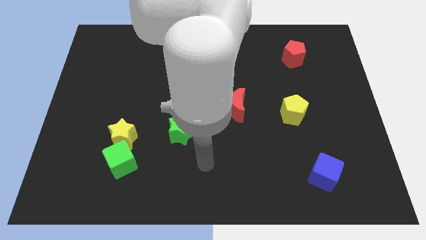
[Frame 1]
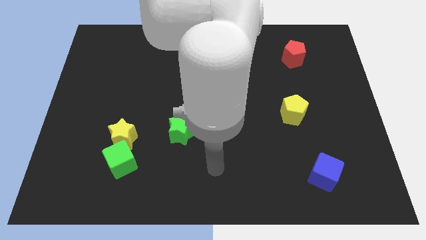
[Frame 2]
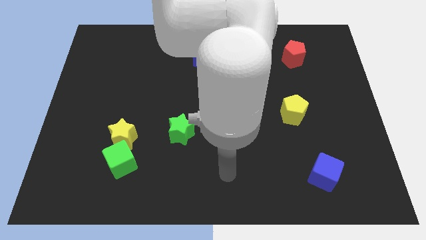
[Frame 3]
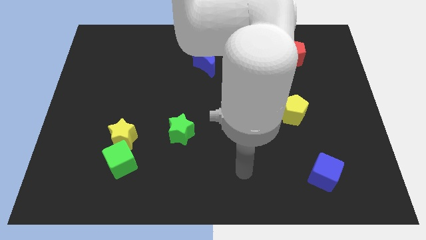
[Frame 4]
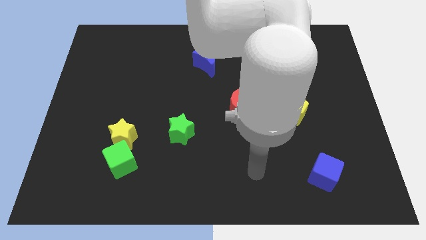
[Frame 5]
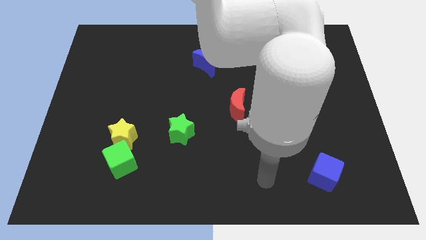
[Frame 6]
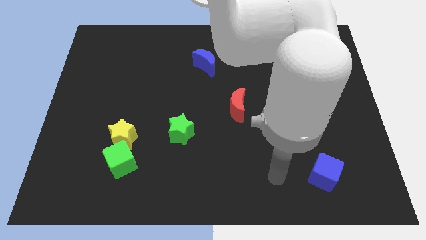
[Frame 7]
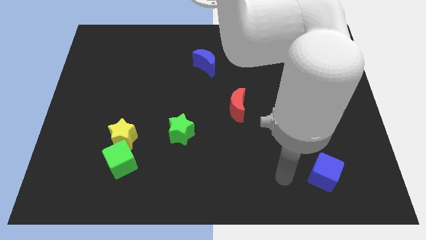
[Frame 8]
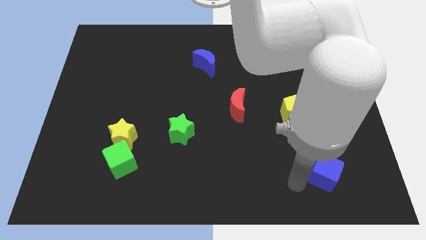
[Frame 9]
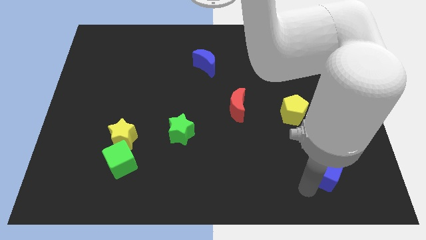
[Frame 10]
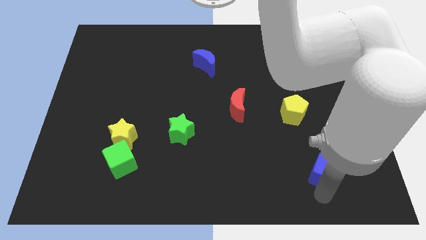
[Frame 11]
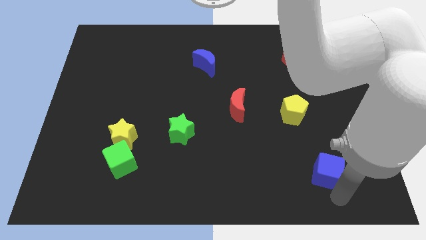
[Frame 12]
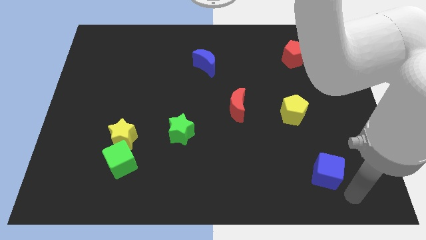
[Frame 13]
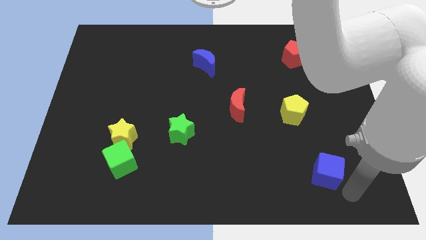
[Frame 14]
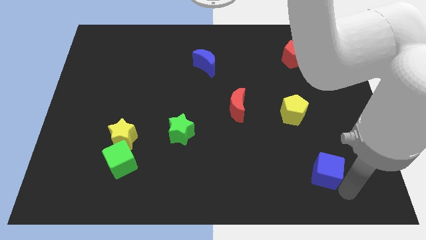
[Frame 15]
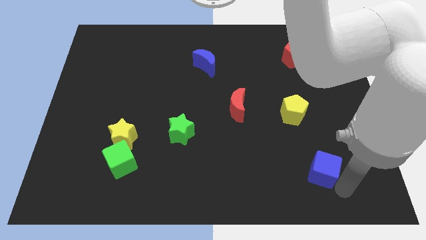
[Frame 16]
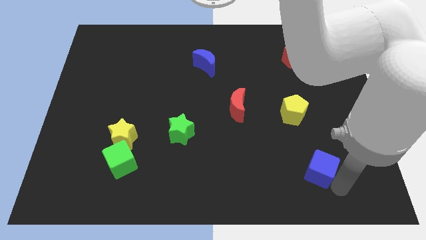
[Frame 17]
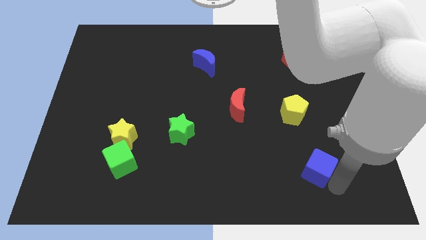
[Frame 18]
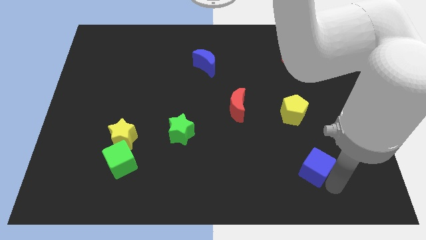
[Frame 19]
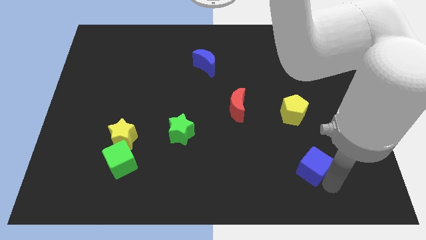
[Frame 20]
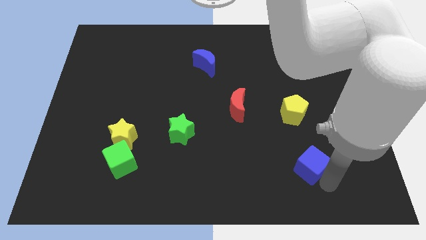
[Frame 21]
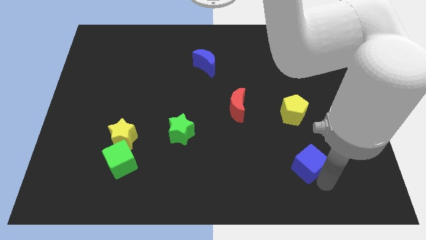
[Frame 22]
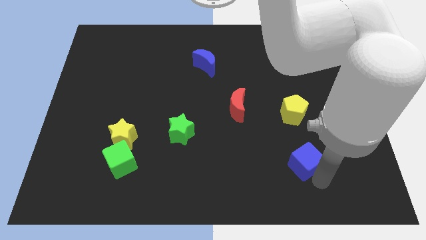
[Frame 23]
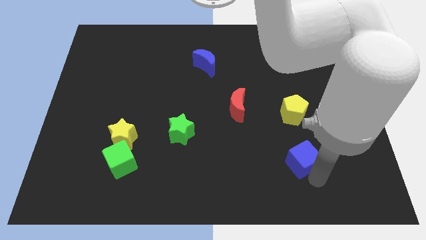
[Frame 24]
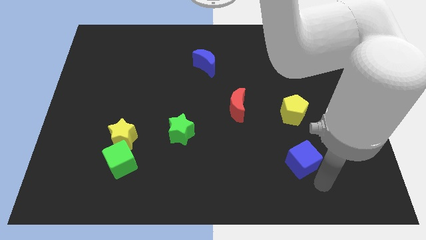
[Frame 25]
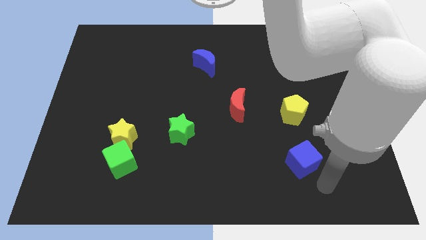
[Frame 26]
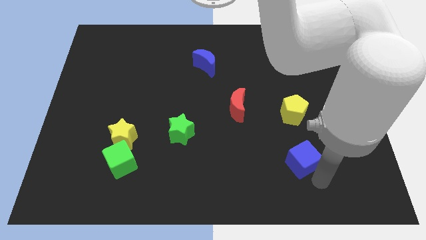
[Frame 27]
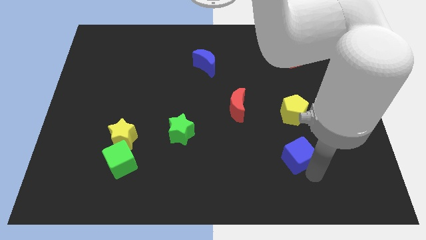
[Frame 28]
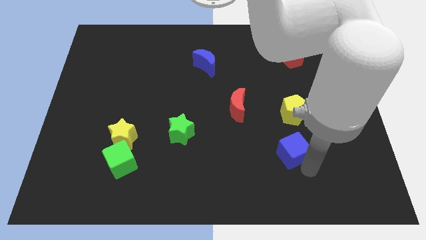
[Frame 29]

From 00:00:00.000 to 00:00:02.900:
push the blue cube a bit diagonally up and left

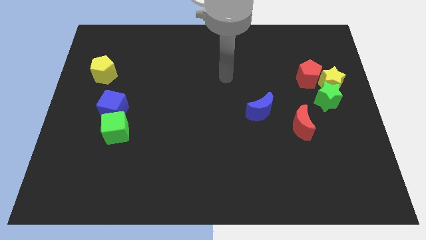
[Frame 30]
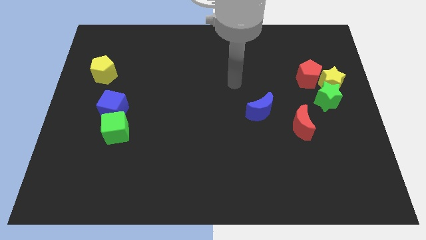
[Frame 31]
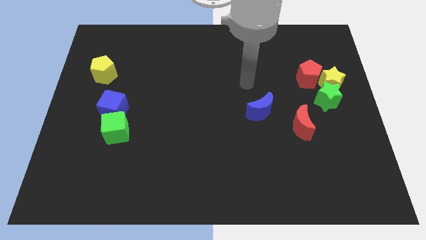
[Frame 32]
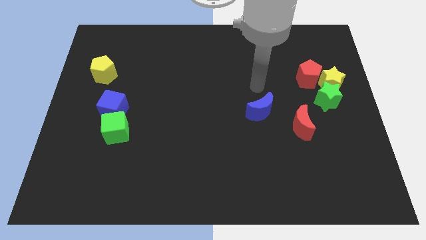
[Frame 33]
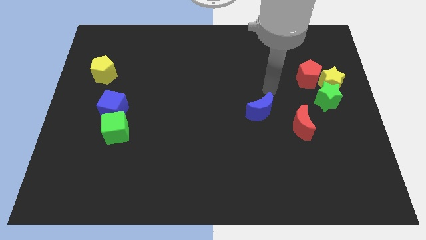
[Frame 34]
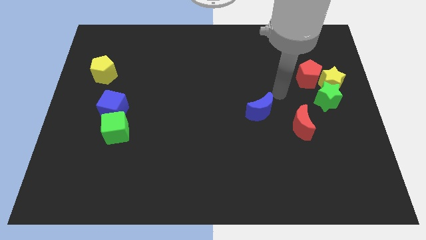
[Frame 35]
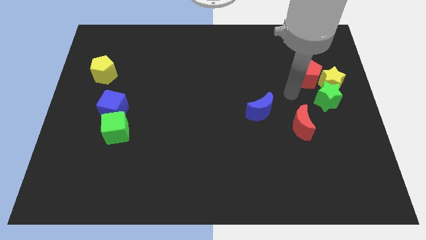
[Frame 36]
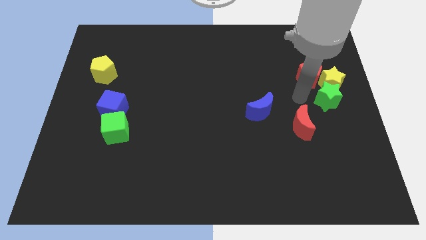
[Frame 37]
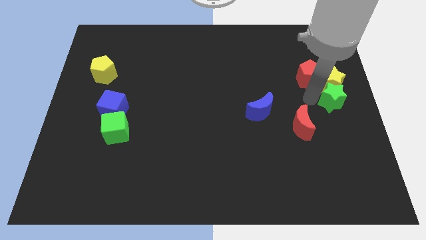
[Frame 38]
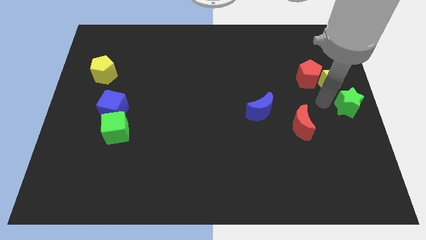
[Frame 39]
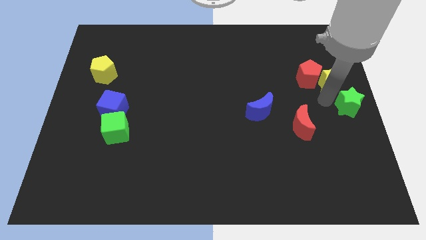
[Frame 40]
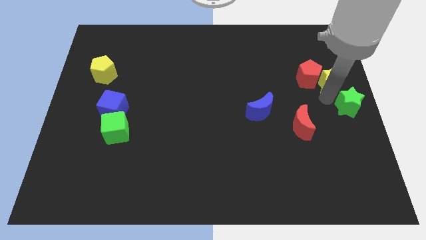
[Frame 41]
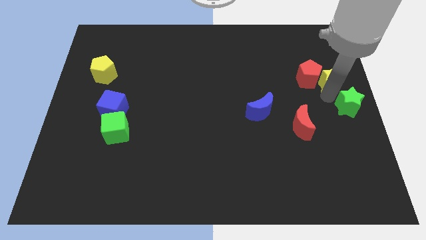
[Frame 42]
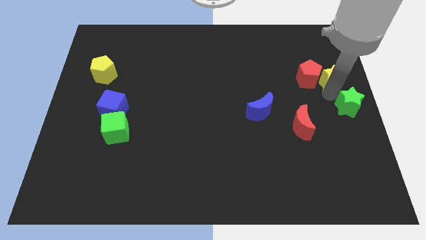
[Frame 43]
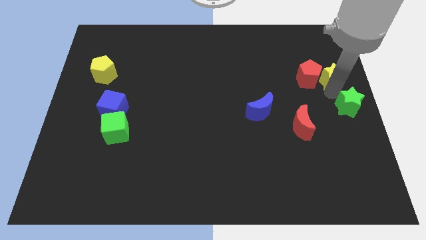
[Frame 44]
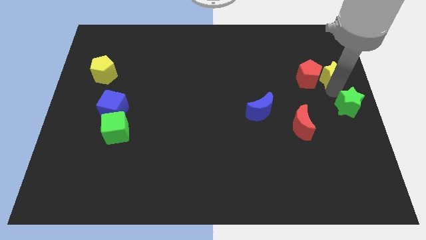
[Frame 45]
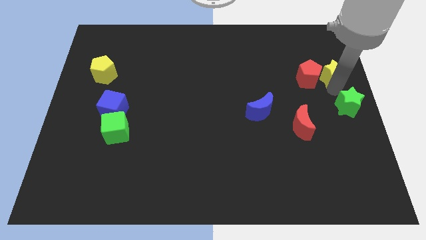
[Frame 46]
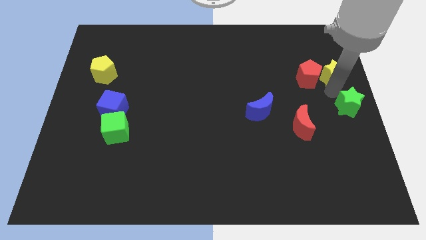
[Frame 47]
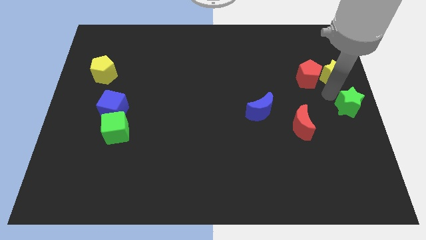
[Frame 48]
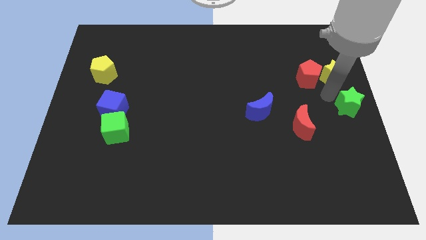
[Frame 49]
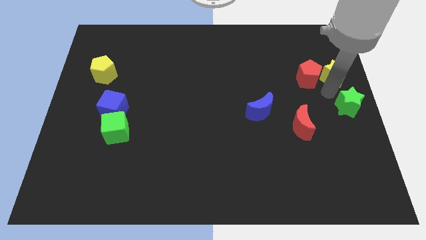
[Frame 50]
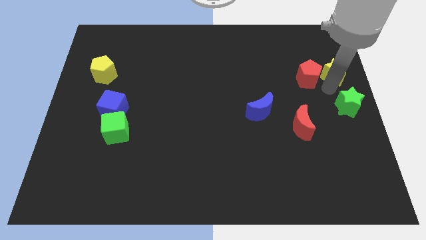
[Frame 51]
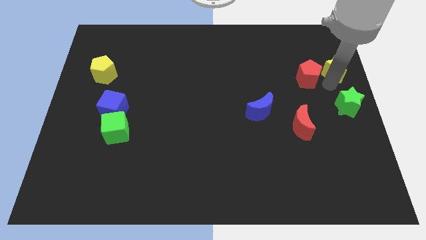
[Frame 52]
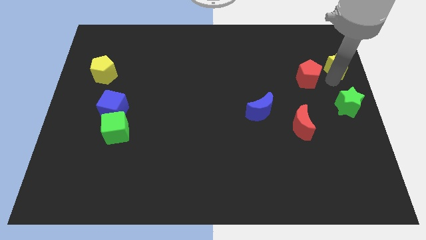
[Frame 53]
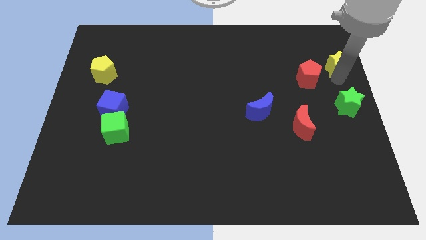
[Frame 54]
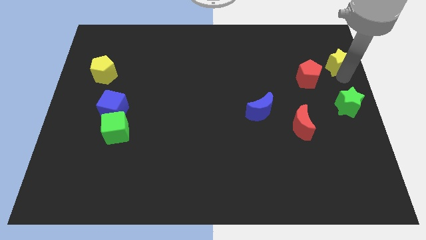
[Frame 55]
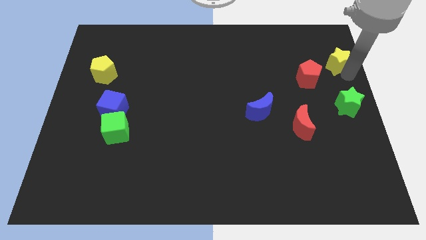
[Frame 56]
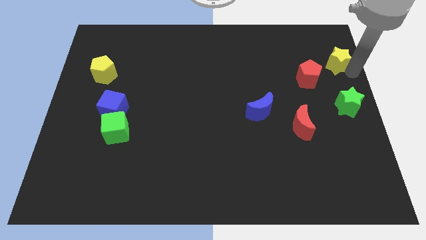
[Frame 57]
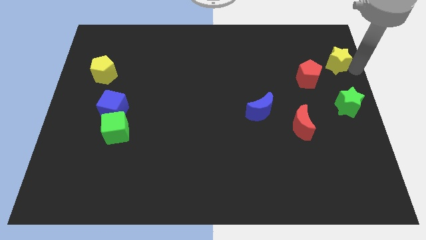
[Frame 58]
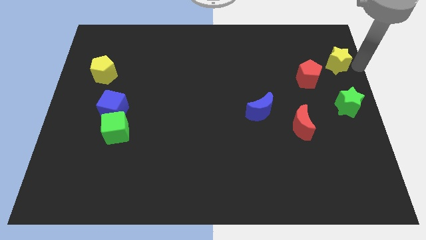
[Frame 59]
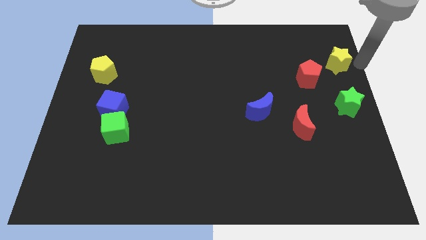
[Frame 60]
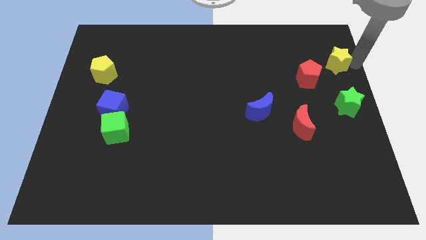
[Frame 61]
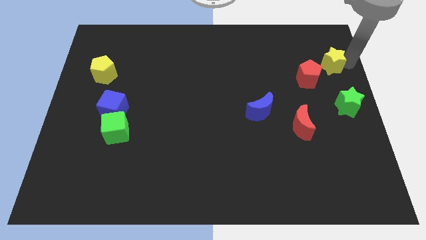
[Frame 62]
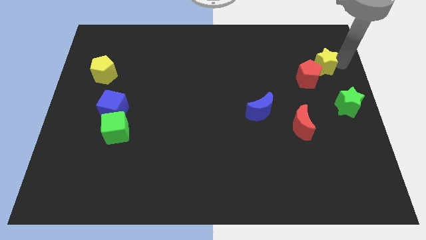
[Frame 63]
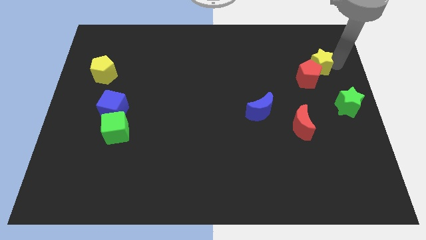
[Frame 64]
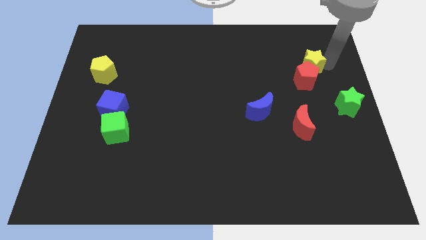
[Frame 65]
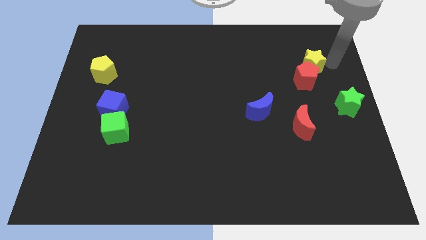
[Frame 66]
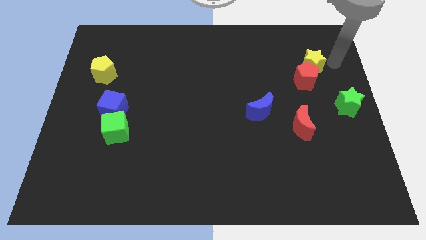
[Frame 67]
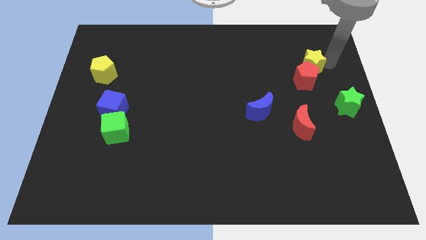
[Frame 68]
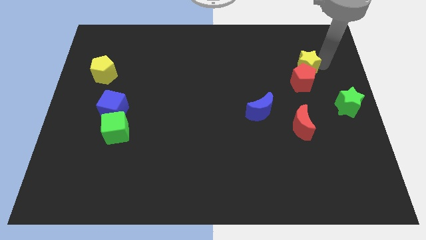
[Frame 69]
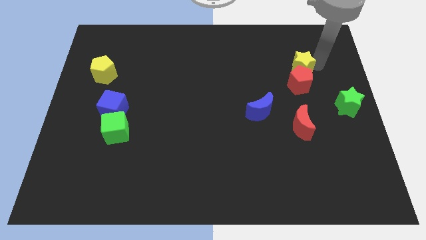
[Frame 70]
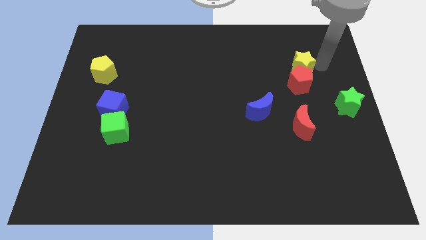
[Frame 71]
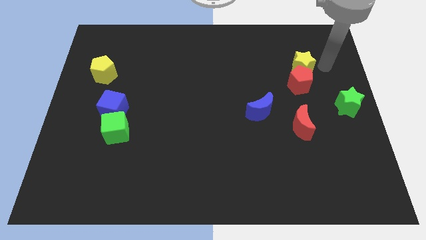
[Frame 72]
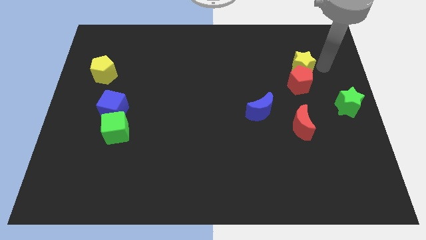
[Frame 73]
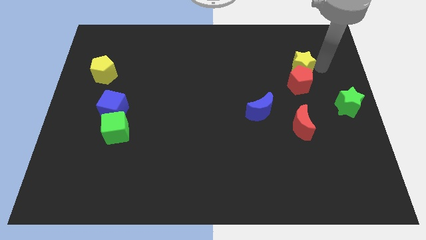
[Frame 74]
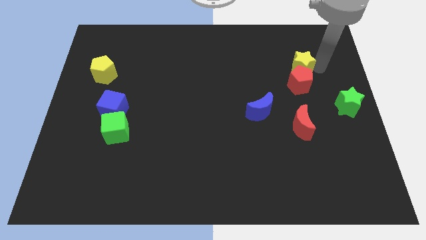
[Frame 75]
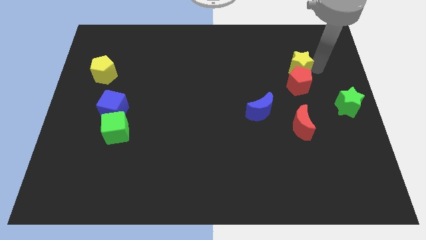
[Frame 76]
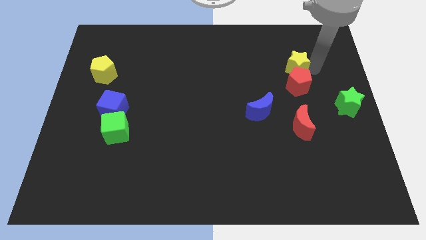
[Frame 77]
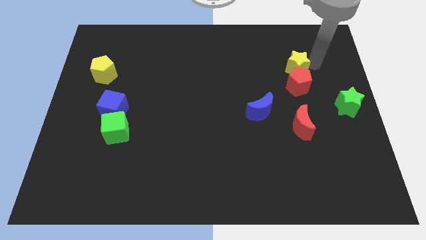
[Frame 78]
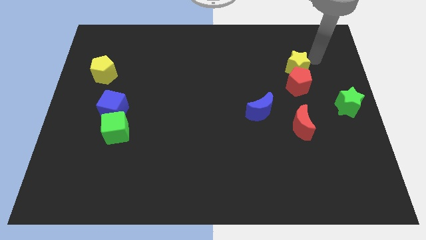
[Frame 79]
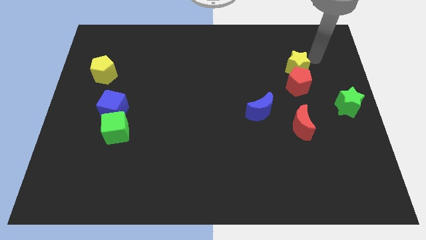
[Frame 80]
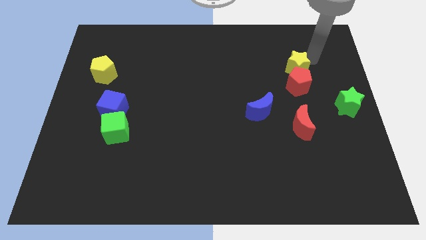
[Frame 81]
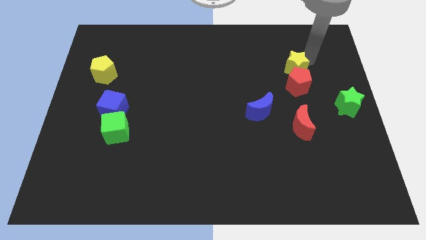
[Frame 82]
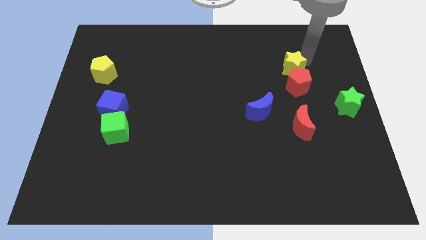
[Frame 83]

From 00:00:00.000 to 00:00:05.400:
move the yellow star a little bit to the left
